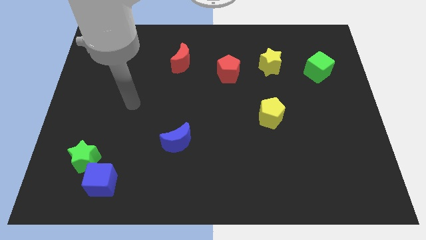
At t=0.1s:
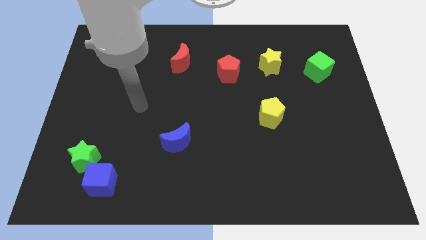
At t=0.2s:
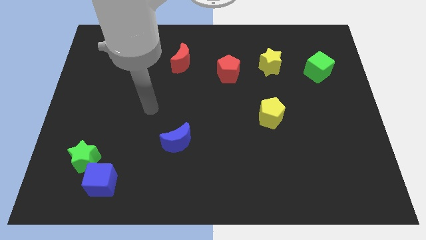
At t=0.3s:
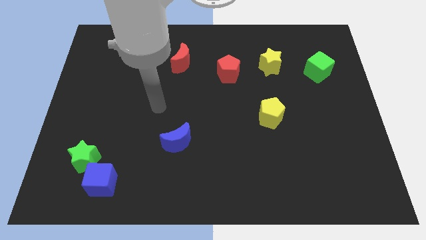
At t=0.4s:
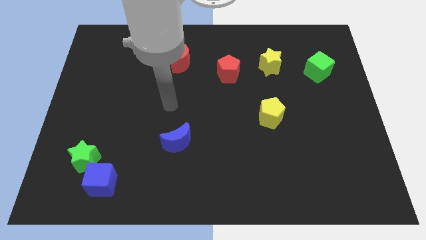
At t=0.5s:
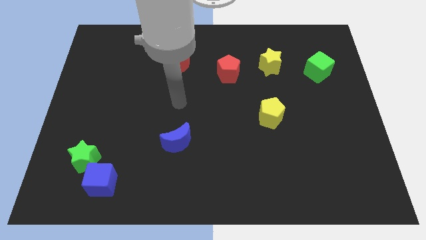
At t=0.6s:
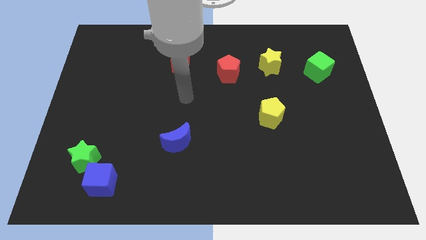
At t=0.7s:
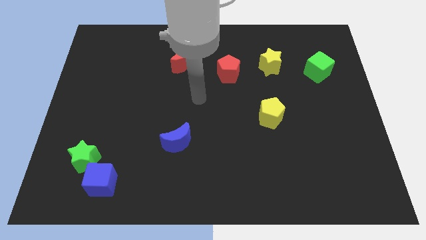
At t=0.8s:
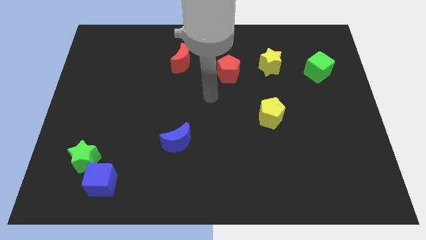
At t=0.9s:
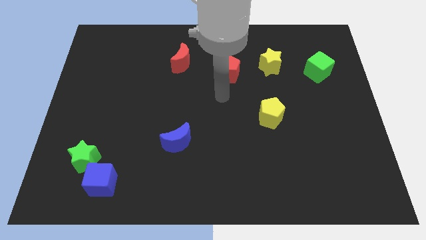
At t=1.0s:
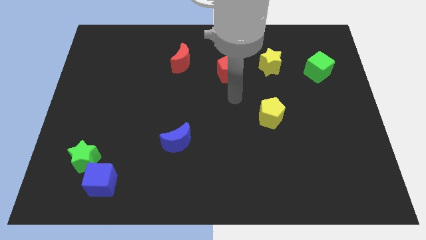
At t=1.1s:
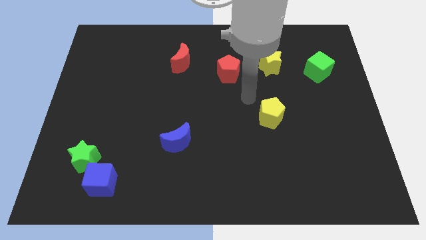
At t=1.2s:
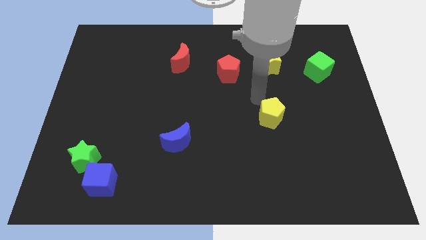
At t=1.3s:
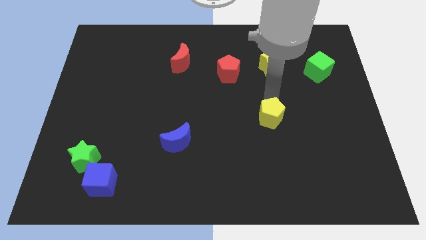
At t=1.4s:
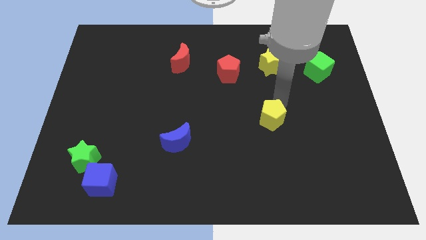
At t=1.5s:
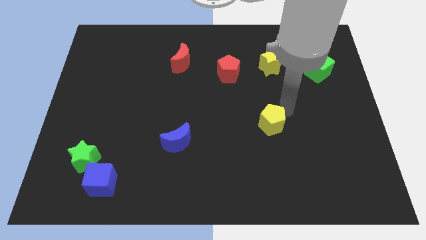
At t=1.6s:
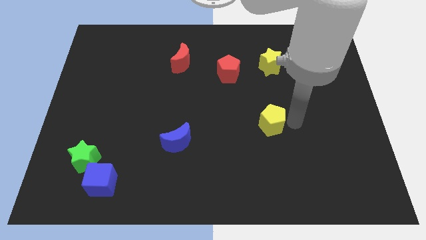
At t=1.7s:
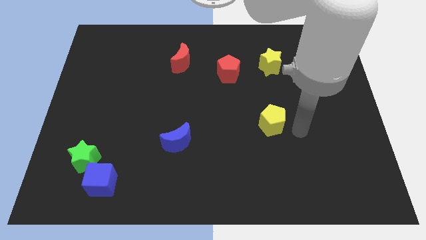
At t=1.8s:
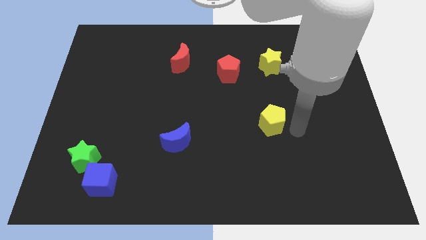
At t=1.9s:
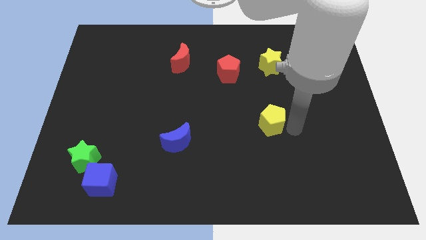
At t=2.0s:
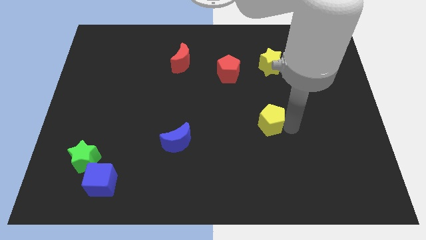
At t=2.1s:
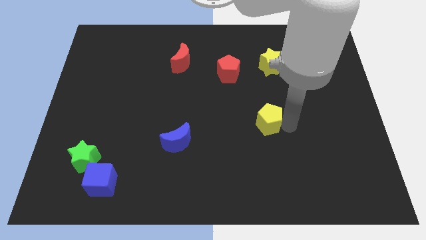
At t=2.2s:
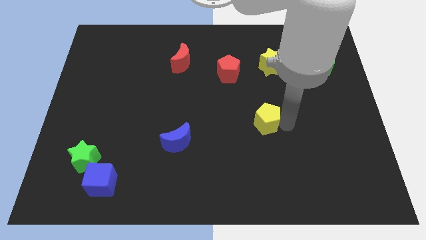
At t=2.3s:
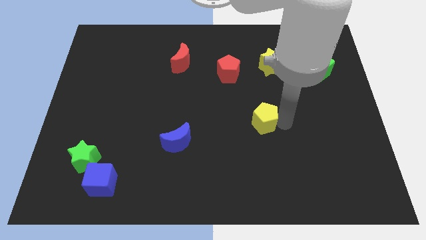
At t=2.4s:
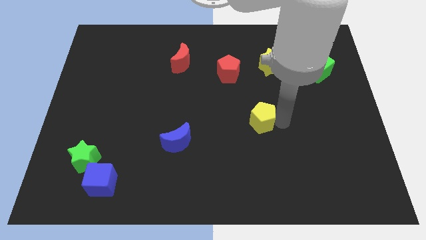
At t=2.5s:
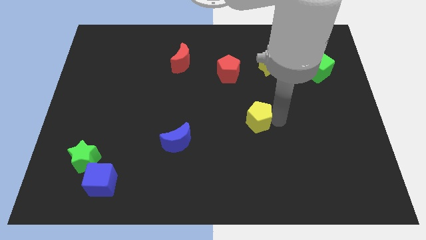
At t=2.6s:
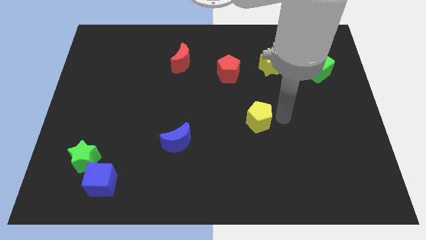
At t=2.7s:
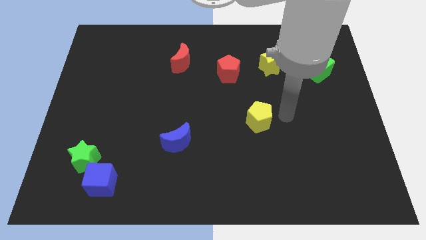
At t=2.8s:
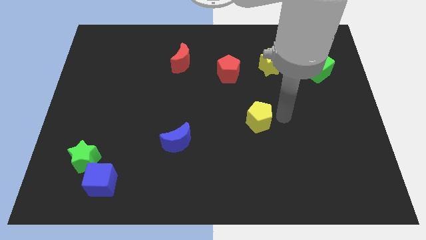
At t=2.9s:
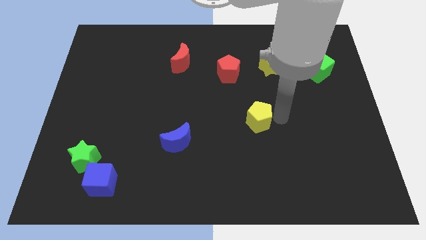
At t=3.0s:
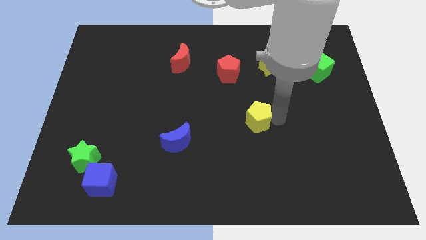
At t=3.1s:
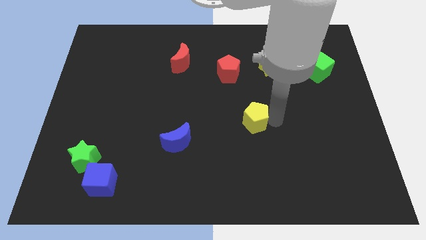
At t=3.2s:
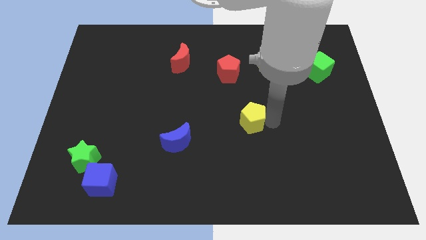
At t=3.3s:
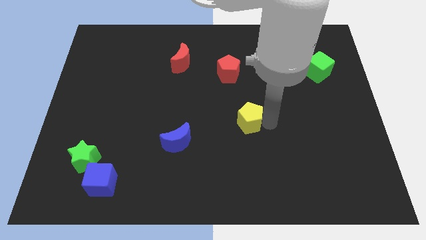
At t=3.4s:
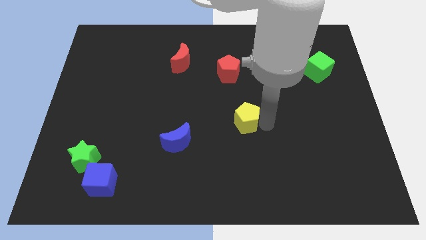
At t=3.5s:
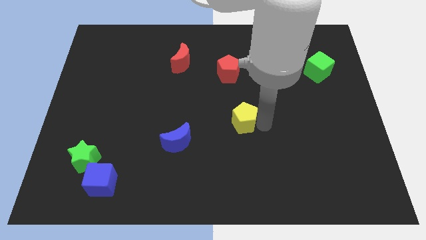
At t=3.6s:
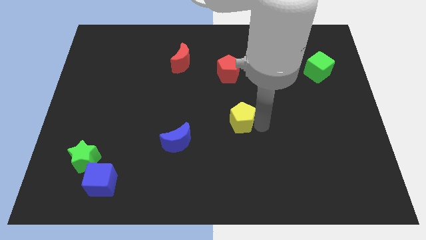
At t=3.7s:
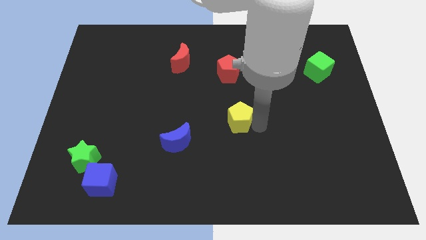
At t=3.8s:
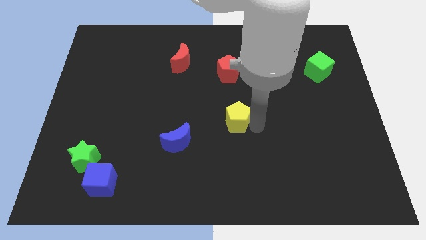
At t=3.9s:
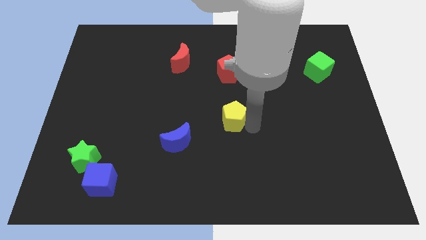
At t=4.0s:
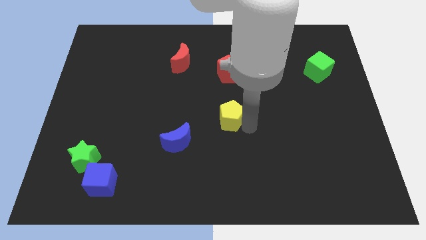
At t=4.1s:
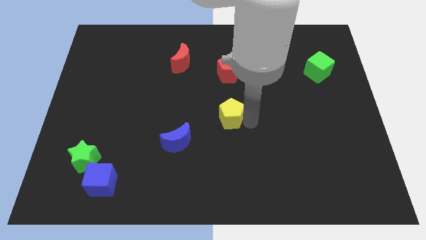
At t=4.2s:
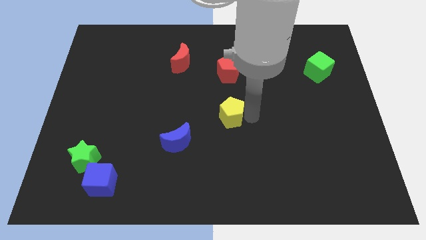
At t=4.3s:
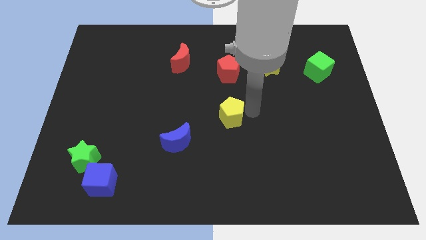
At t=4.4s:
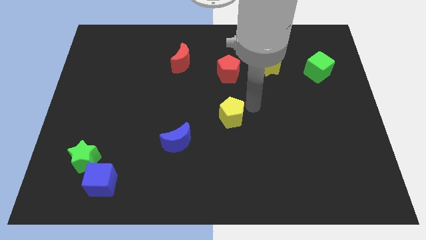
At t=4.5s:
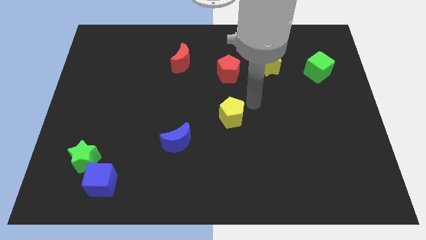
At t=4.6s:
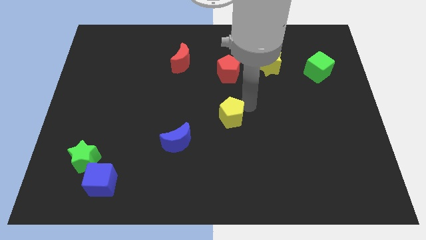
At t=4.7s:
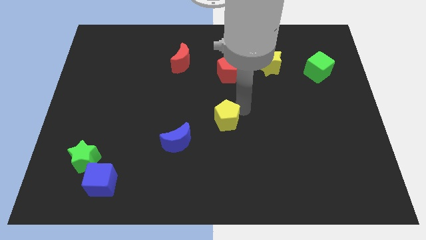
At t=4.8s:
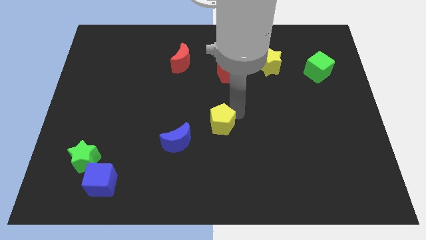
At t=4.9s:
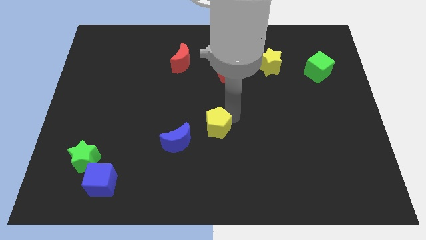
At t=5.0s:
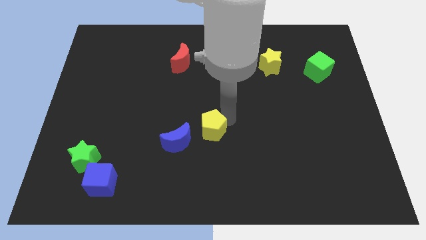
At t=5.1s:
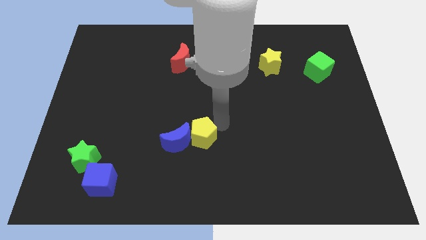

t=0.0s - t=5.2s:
slide the yellow pentagon next to the blue moon

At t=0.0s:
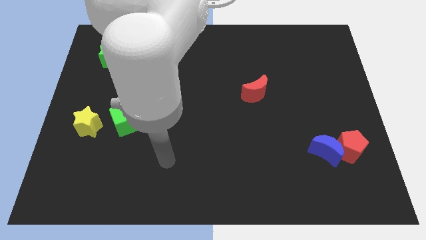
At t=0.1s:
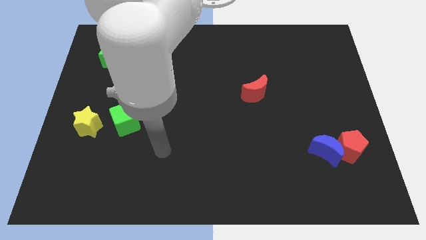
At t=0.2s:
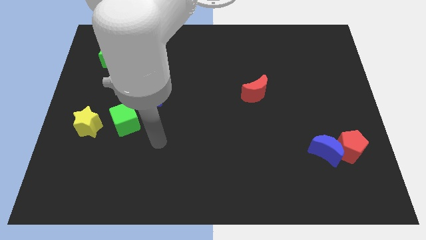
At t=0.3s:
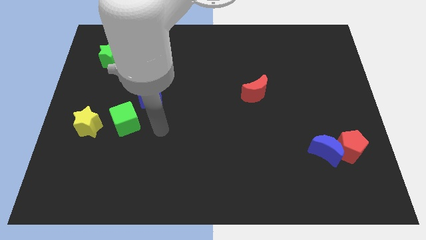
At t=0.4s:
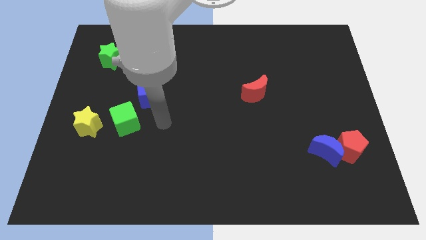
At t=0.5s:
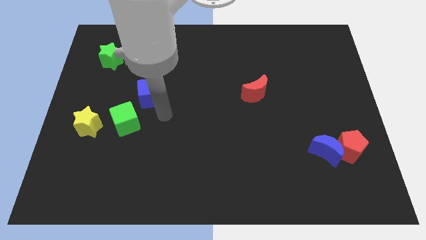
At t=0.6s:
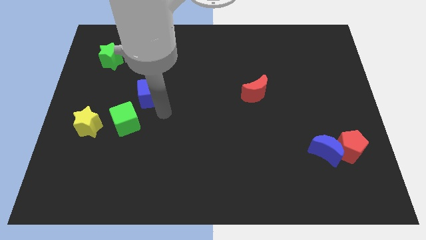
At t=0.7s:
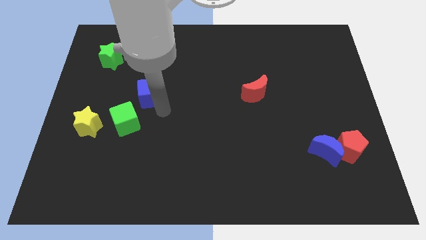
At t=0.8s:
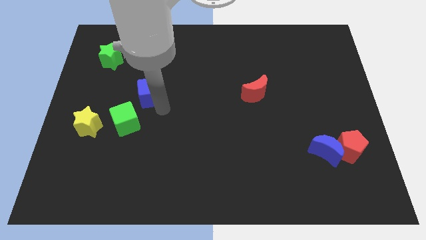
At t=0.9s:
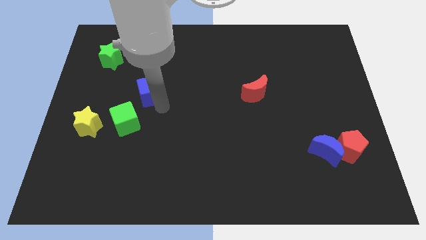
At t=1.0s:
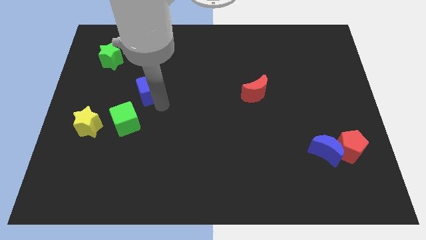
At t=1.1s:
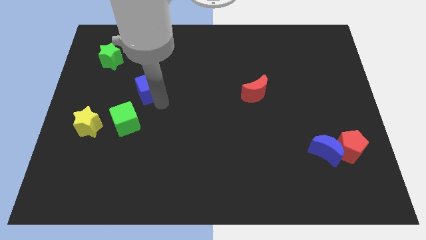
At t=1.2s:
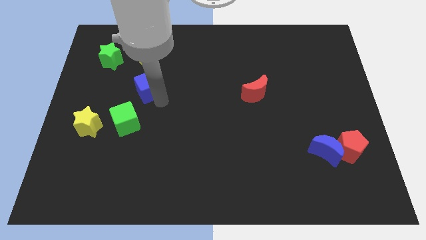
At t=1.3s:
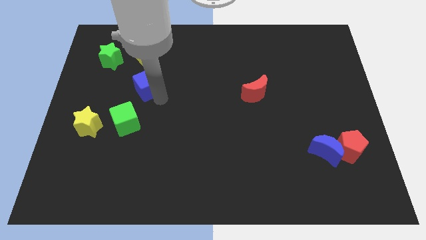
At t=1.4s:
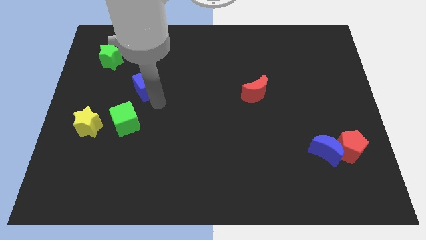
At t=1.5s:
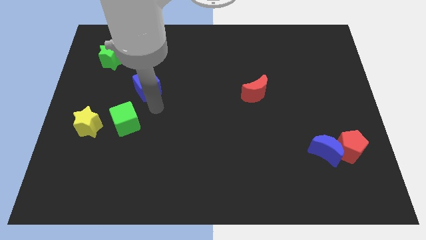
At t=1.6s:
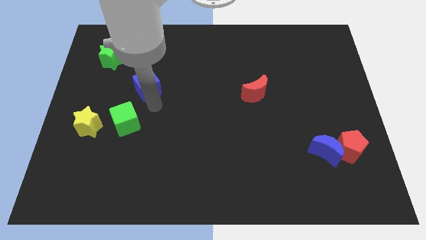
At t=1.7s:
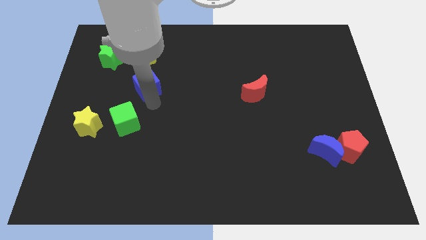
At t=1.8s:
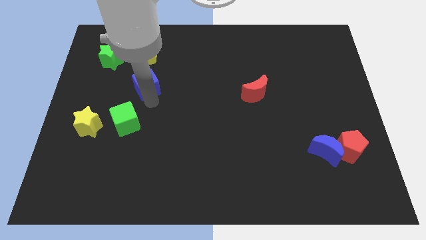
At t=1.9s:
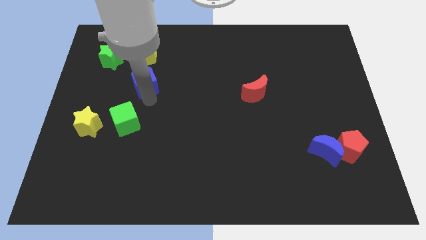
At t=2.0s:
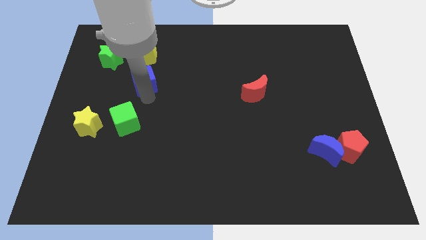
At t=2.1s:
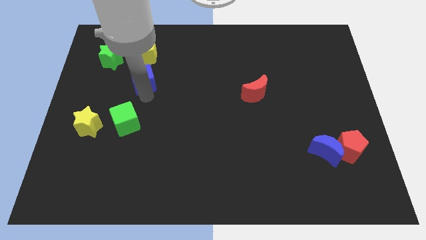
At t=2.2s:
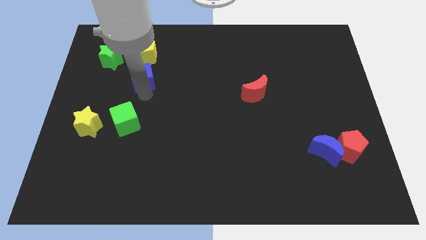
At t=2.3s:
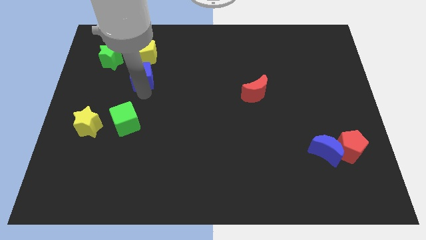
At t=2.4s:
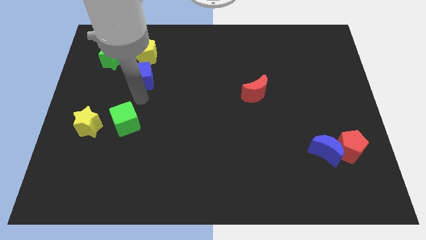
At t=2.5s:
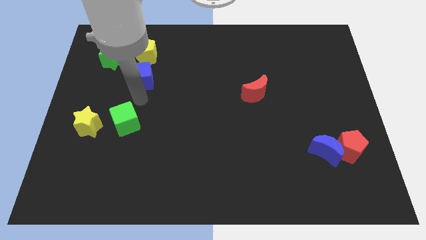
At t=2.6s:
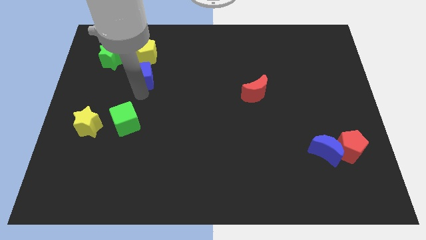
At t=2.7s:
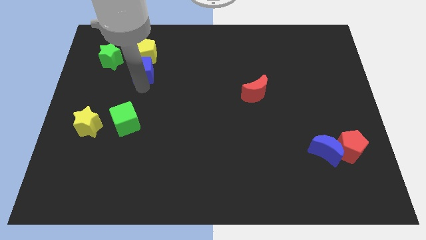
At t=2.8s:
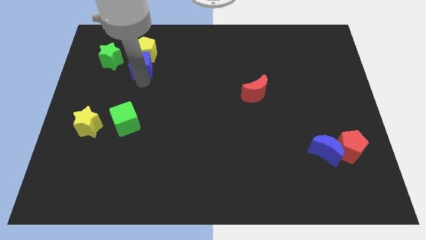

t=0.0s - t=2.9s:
move the blue cube towards the yellow pentagon

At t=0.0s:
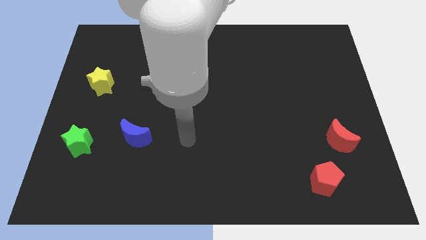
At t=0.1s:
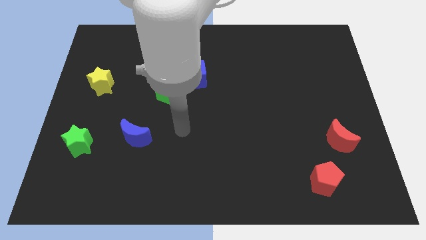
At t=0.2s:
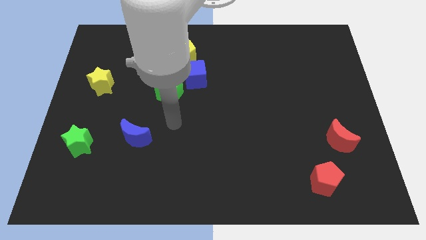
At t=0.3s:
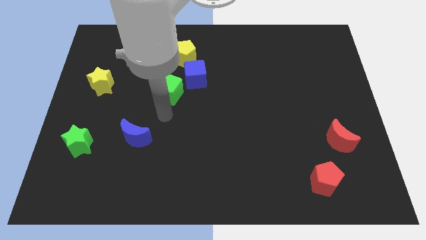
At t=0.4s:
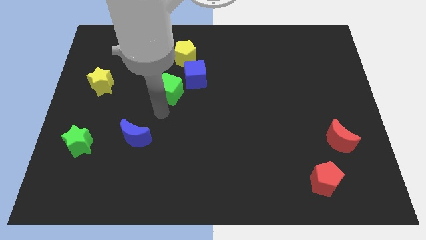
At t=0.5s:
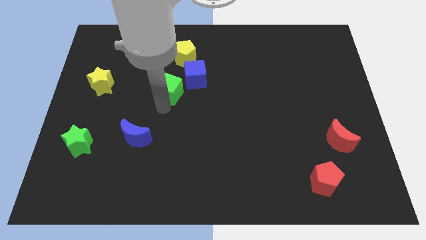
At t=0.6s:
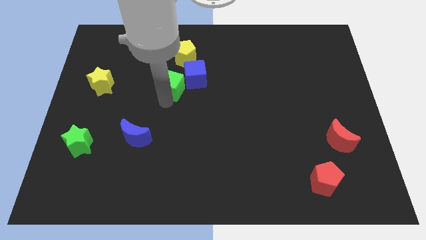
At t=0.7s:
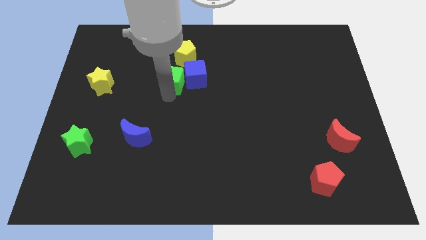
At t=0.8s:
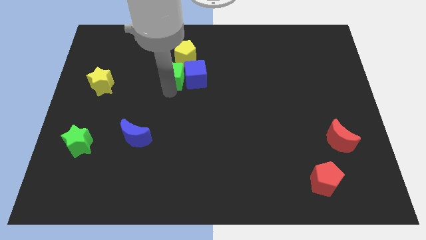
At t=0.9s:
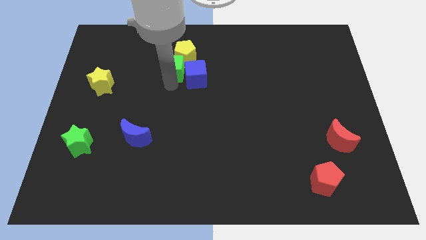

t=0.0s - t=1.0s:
push the green cube next to the yellow pentagon
